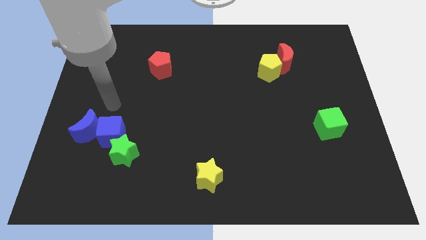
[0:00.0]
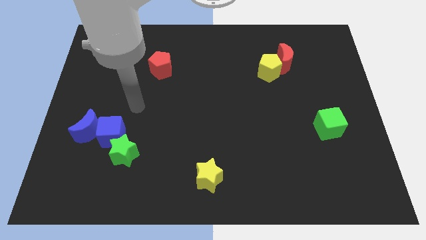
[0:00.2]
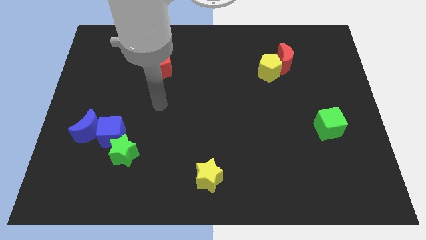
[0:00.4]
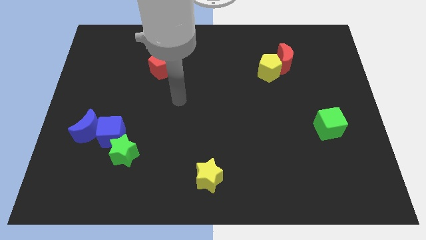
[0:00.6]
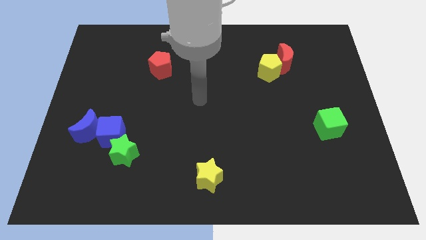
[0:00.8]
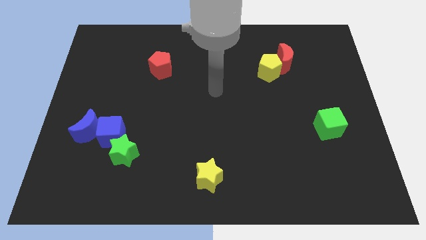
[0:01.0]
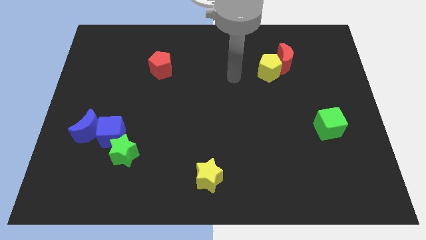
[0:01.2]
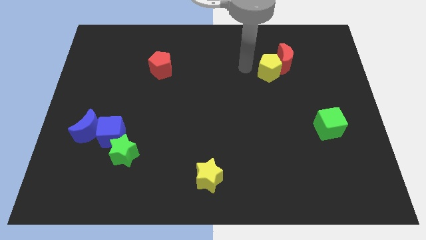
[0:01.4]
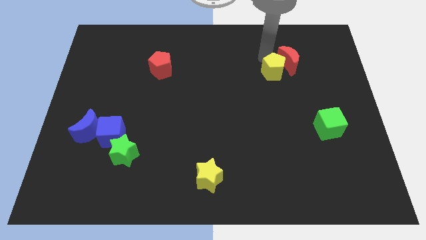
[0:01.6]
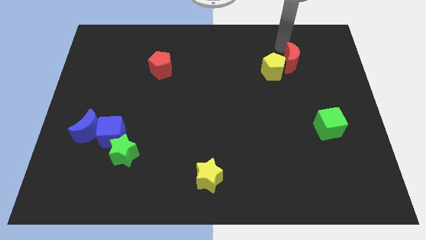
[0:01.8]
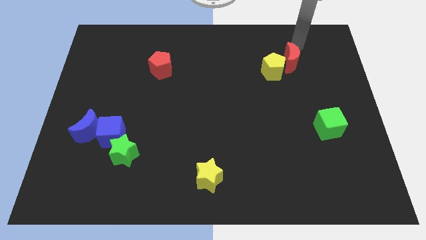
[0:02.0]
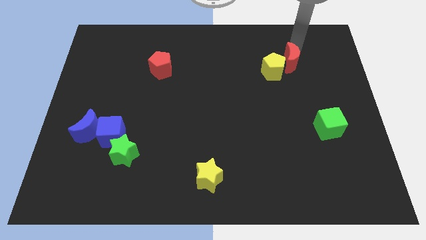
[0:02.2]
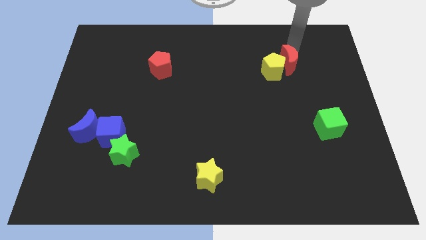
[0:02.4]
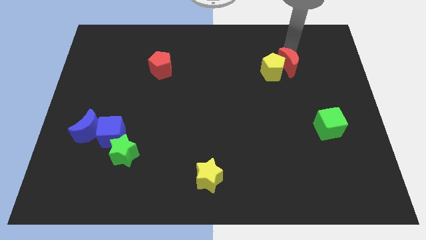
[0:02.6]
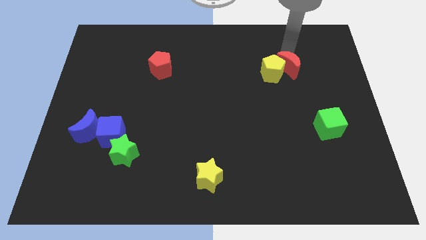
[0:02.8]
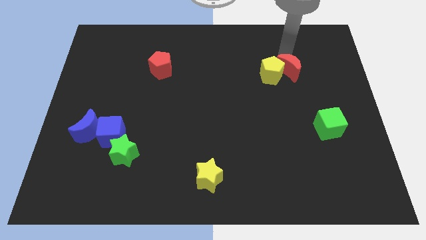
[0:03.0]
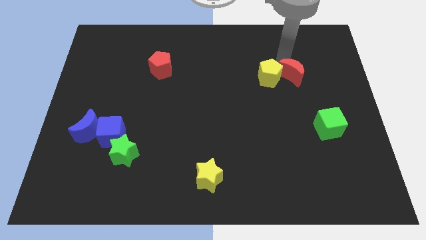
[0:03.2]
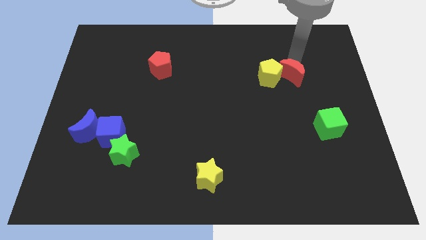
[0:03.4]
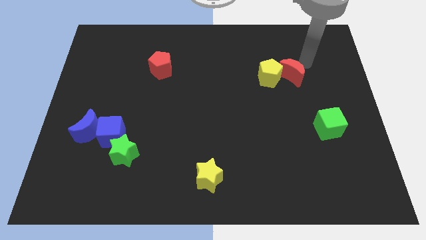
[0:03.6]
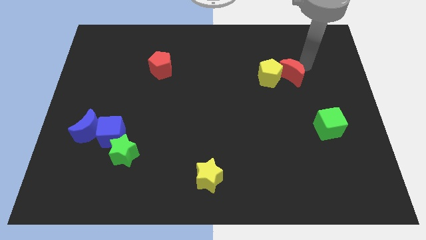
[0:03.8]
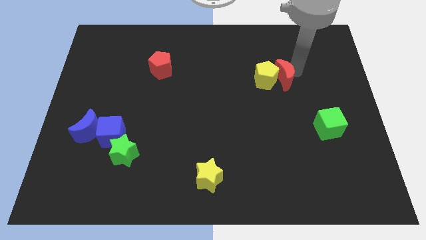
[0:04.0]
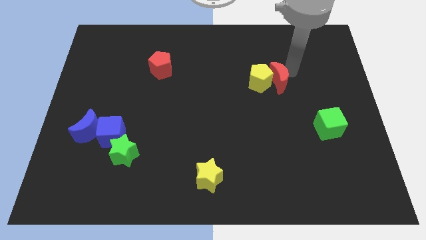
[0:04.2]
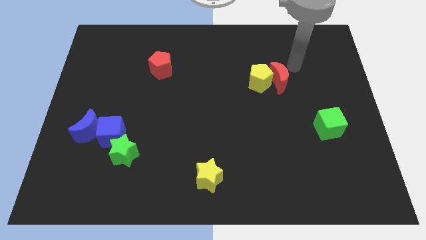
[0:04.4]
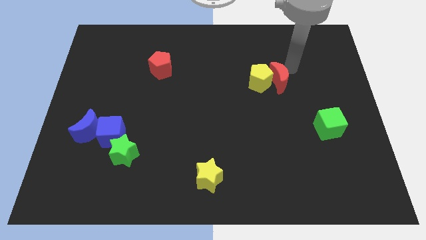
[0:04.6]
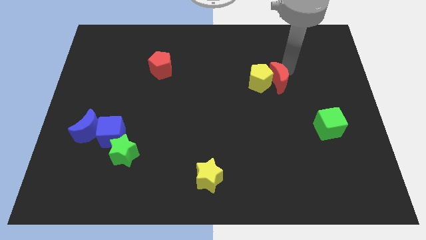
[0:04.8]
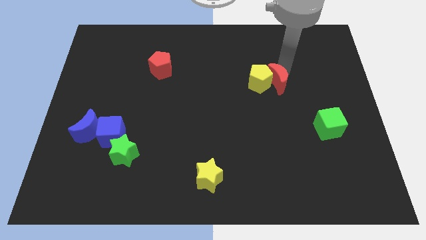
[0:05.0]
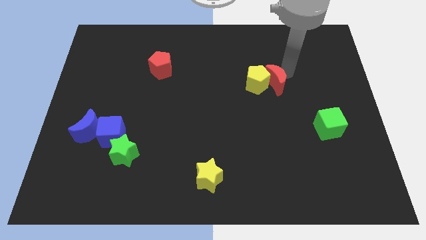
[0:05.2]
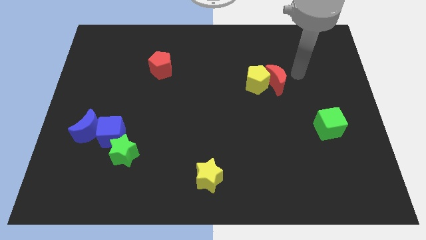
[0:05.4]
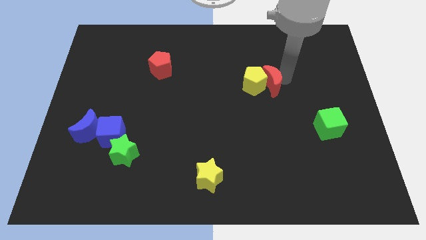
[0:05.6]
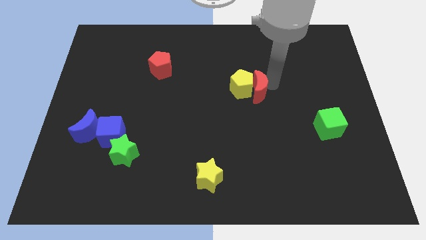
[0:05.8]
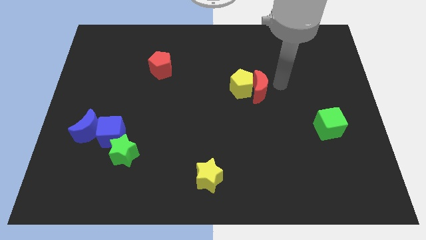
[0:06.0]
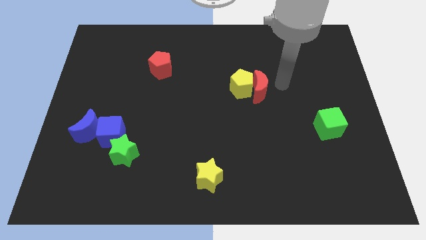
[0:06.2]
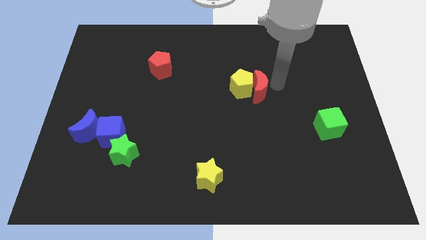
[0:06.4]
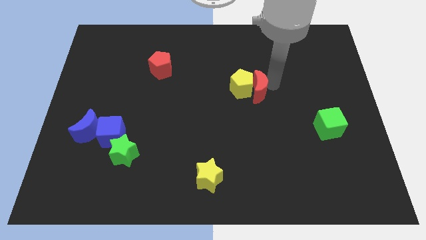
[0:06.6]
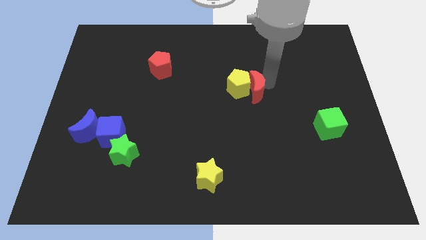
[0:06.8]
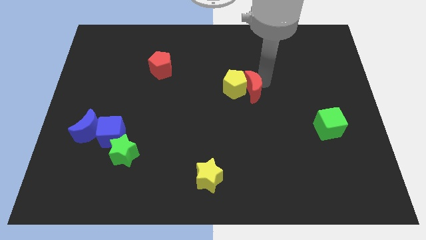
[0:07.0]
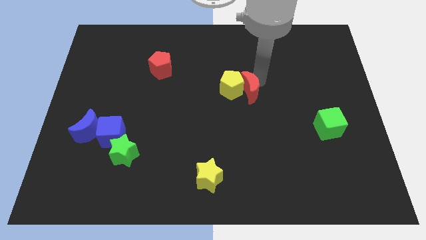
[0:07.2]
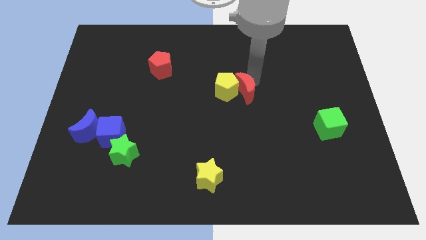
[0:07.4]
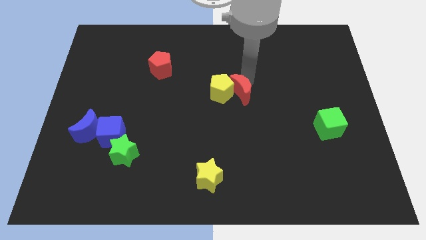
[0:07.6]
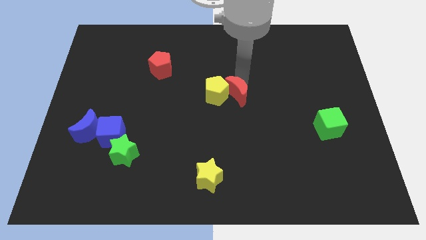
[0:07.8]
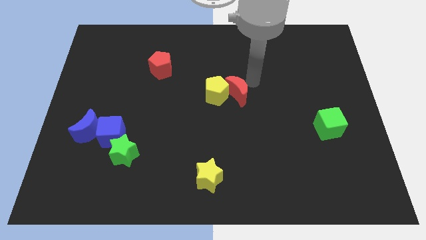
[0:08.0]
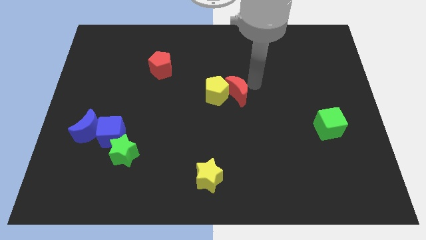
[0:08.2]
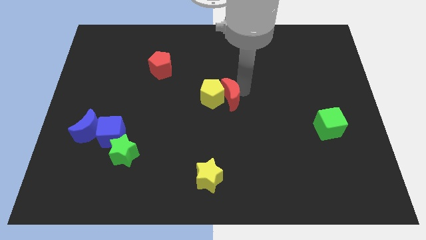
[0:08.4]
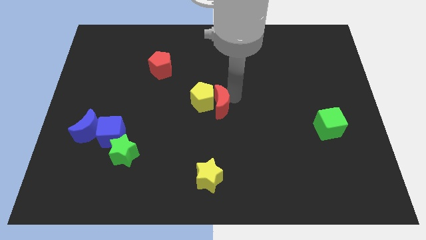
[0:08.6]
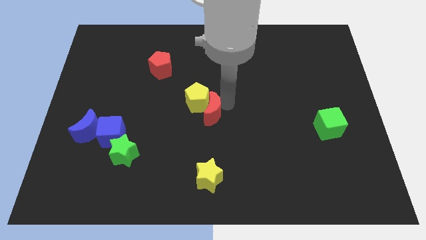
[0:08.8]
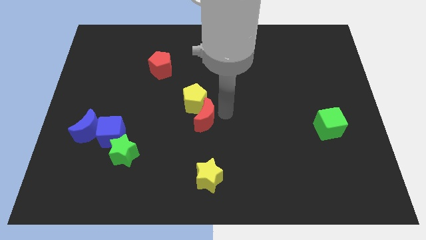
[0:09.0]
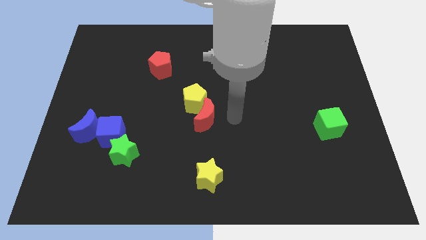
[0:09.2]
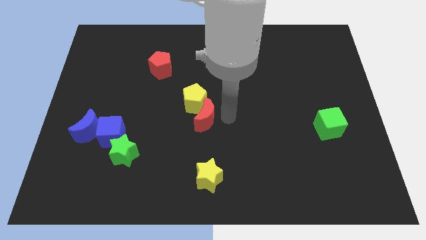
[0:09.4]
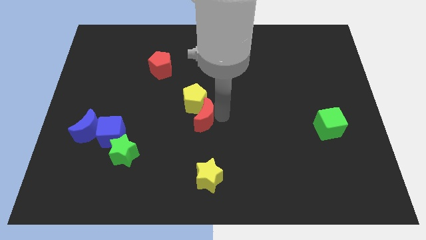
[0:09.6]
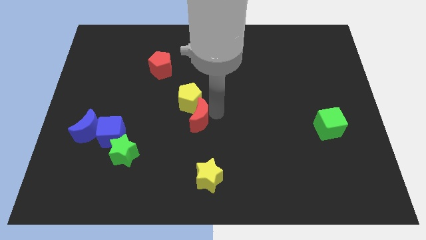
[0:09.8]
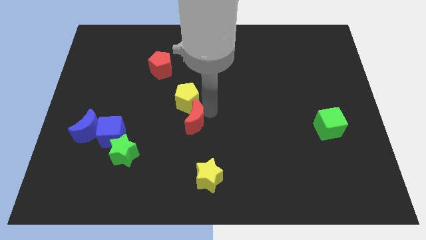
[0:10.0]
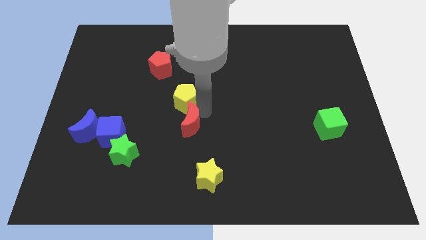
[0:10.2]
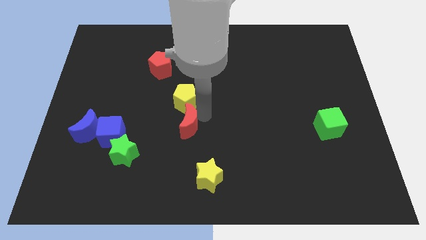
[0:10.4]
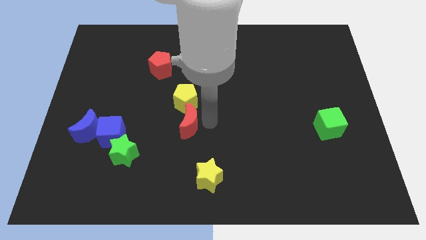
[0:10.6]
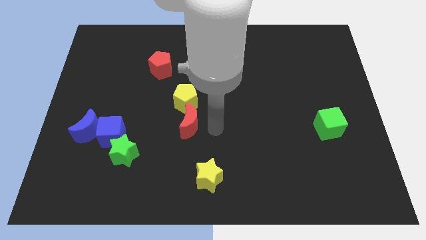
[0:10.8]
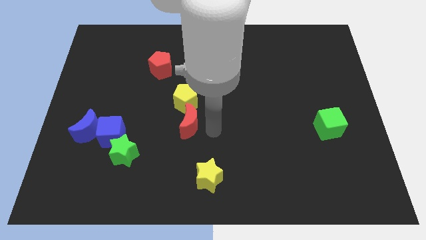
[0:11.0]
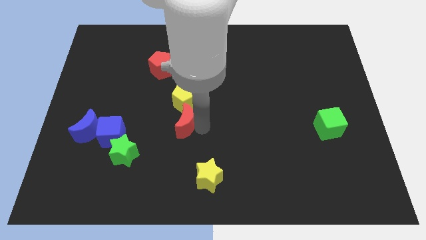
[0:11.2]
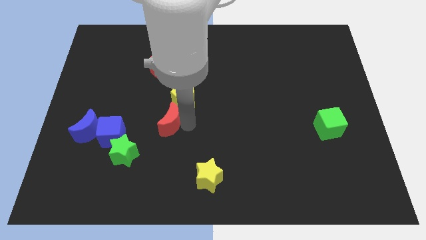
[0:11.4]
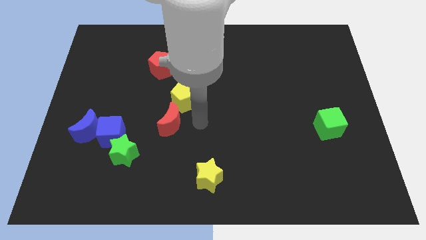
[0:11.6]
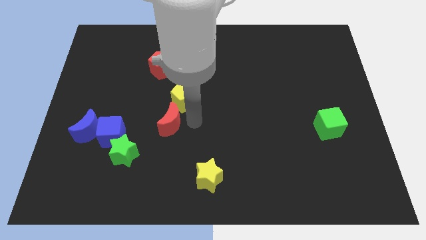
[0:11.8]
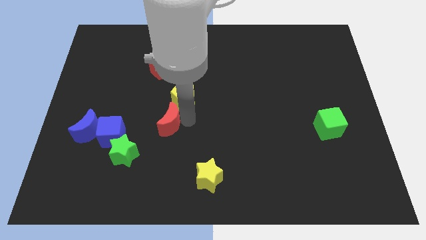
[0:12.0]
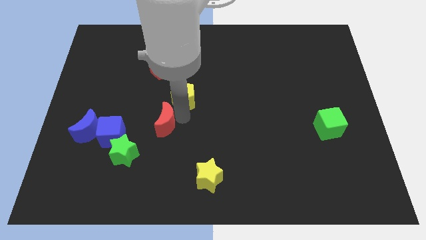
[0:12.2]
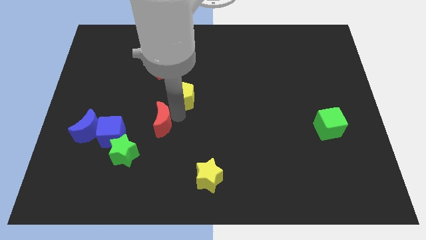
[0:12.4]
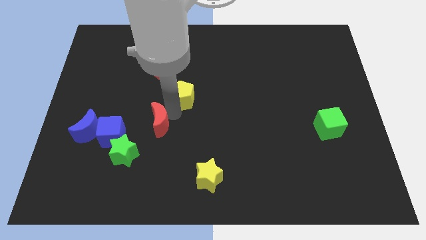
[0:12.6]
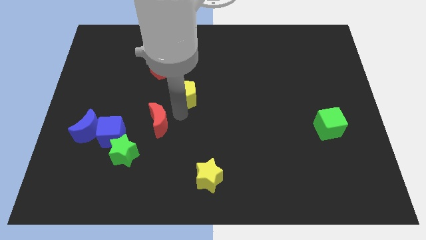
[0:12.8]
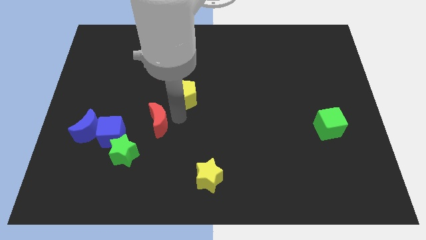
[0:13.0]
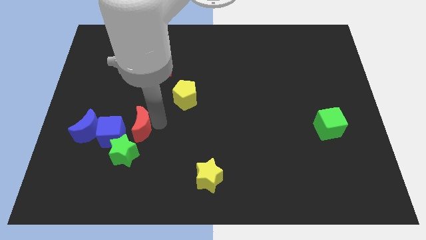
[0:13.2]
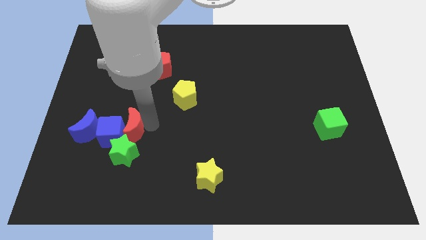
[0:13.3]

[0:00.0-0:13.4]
move the red moon to the blue cube

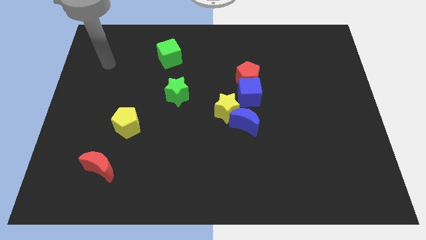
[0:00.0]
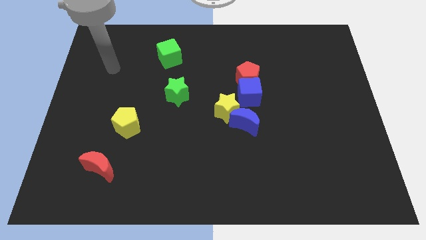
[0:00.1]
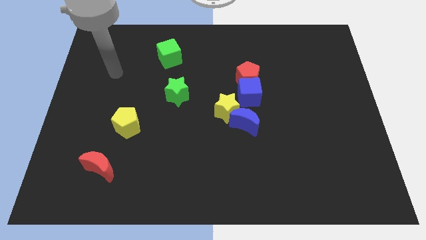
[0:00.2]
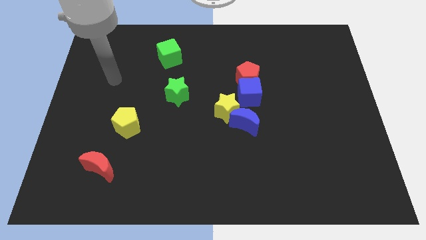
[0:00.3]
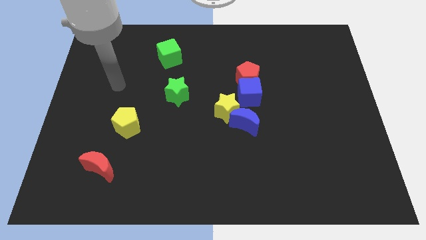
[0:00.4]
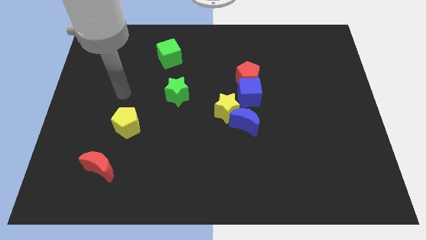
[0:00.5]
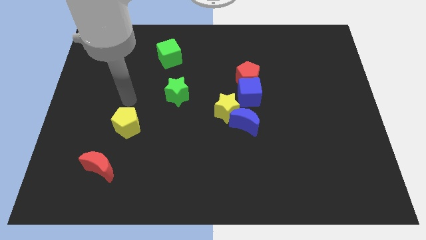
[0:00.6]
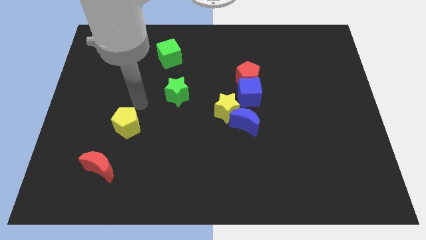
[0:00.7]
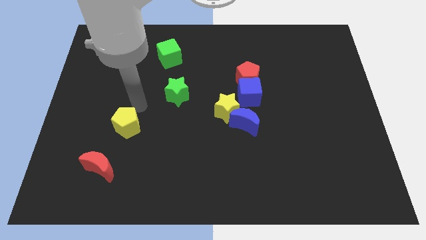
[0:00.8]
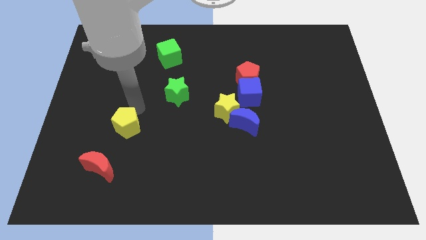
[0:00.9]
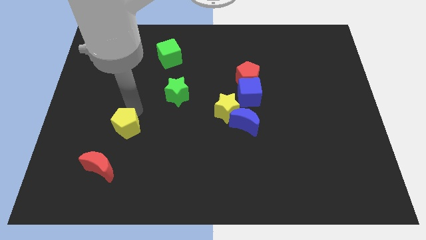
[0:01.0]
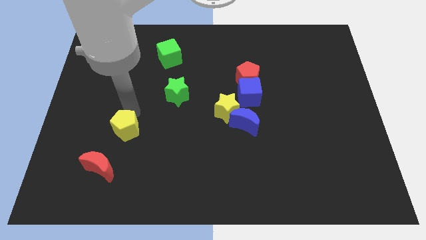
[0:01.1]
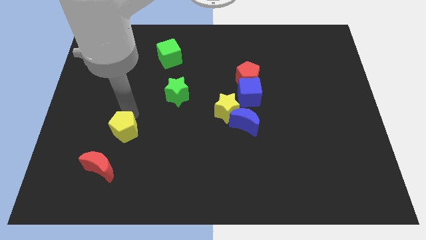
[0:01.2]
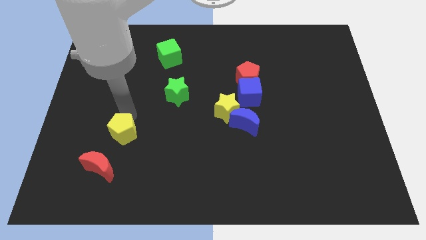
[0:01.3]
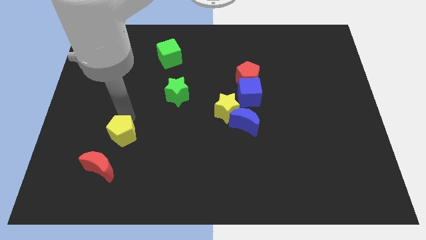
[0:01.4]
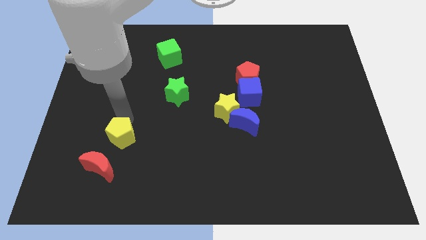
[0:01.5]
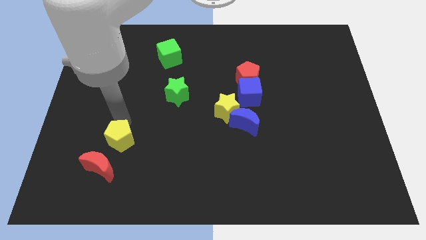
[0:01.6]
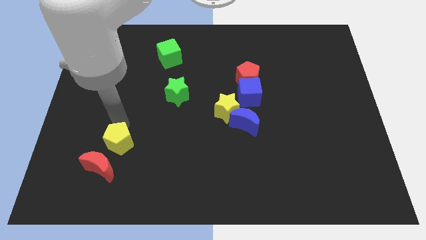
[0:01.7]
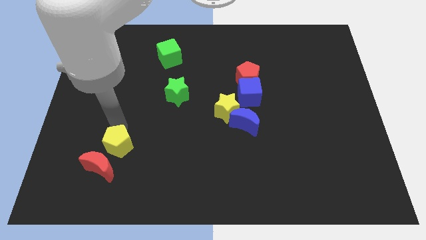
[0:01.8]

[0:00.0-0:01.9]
slide the yellow pentagon next to the red moon
